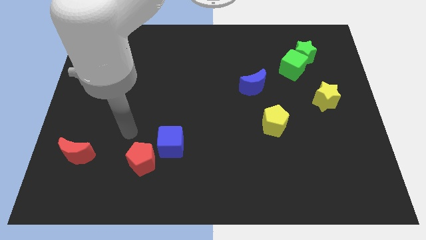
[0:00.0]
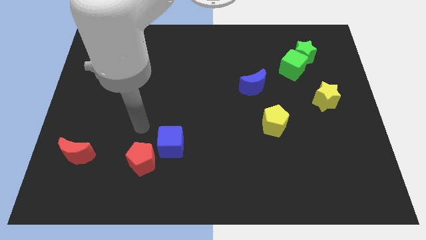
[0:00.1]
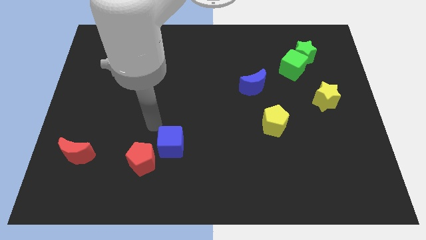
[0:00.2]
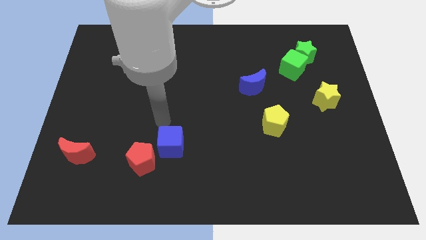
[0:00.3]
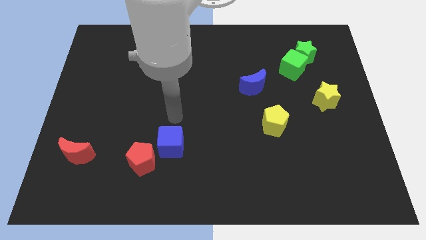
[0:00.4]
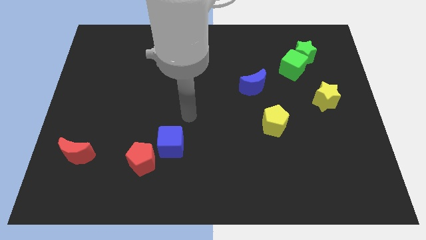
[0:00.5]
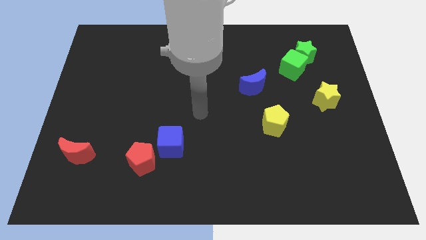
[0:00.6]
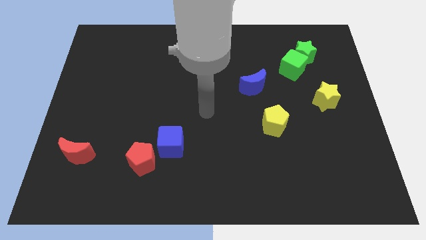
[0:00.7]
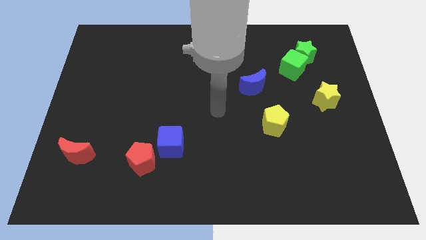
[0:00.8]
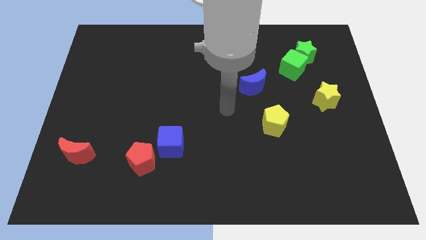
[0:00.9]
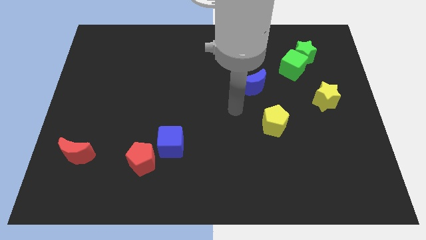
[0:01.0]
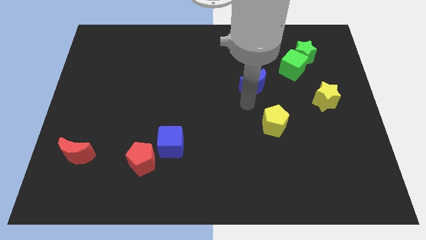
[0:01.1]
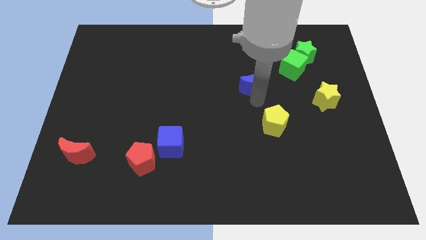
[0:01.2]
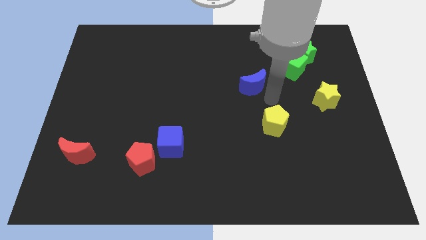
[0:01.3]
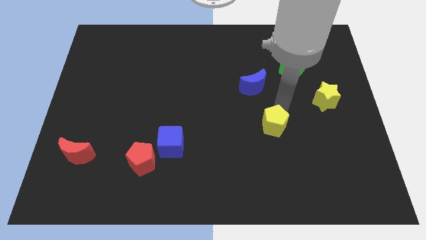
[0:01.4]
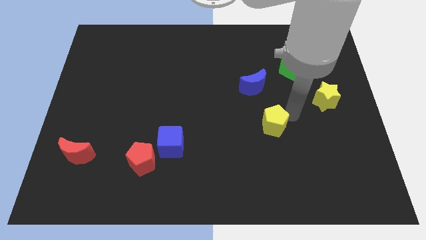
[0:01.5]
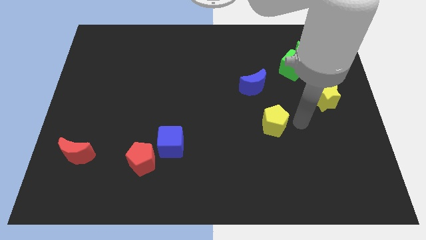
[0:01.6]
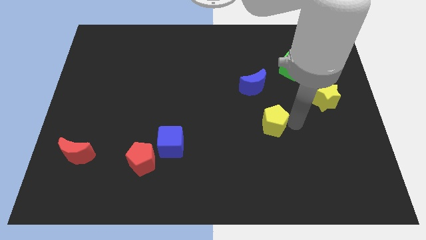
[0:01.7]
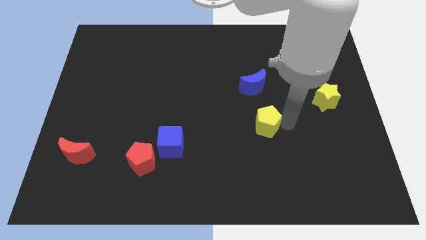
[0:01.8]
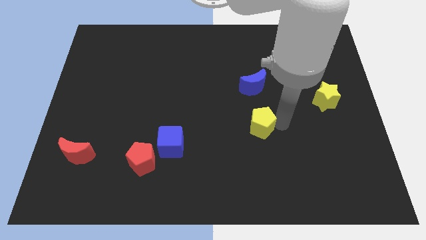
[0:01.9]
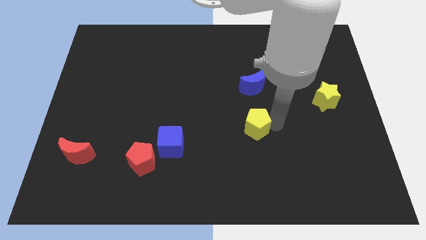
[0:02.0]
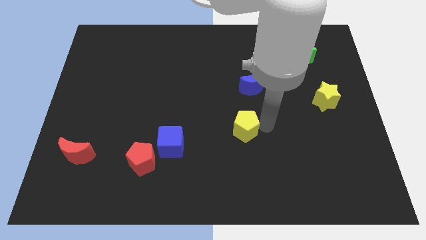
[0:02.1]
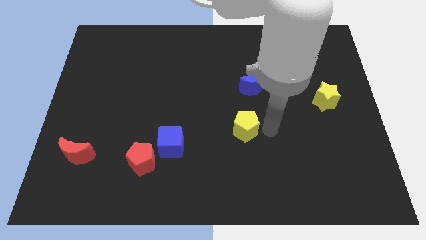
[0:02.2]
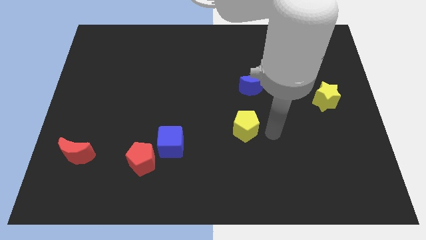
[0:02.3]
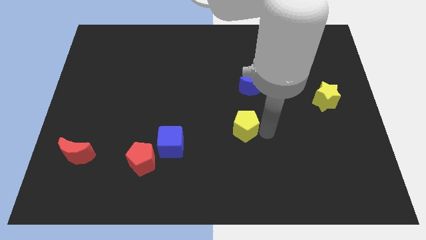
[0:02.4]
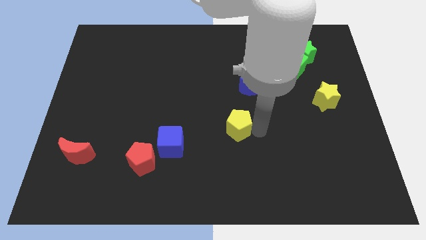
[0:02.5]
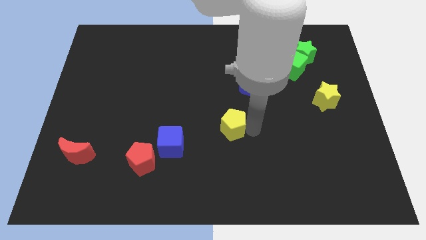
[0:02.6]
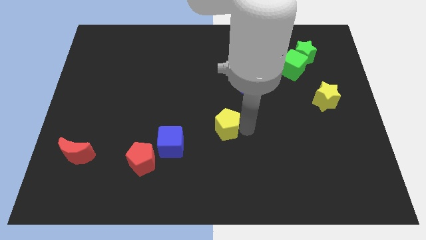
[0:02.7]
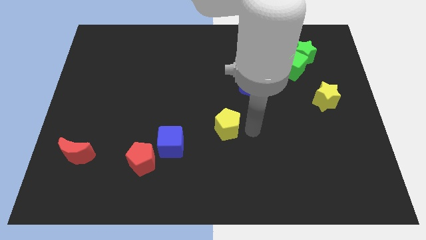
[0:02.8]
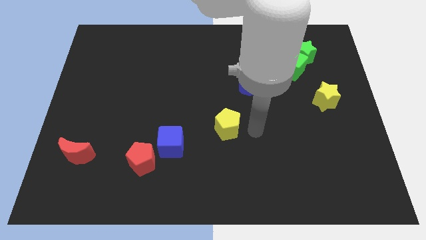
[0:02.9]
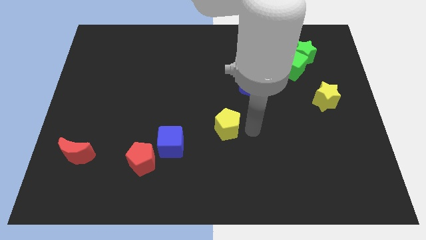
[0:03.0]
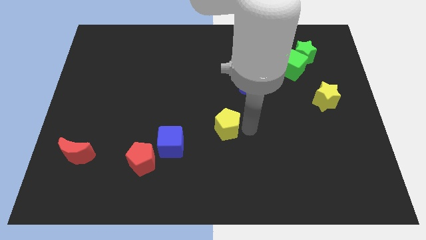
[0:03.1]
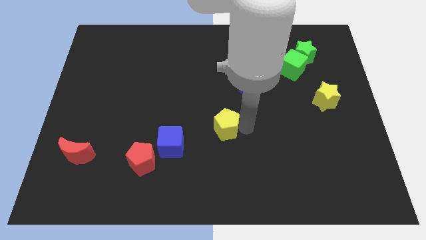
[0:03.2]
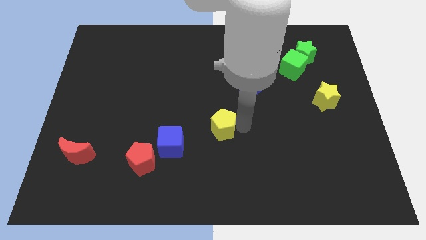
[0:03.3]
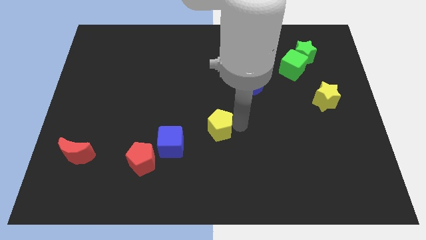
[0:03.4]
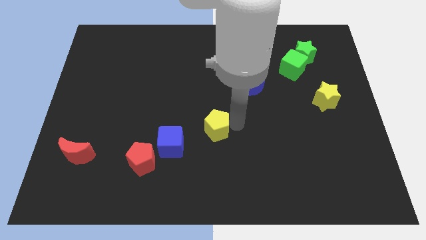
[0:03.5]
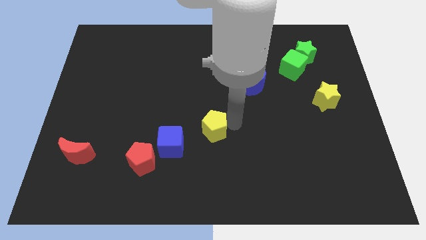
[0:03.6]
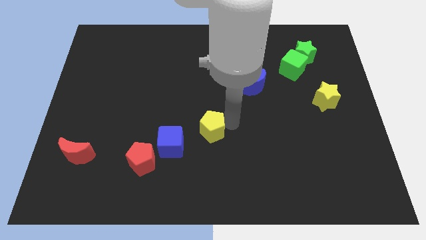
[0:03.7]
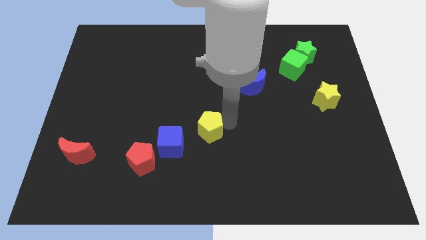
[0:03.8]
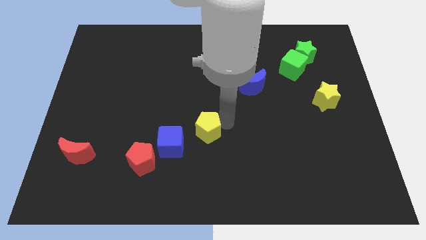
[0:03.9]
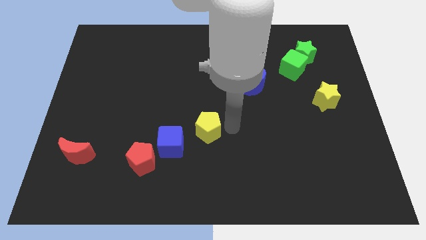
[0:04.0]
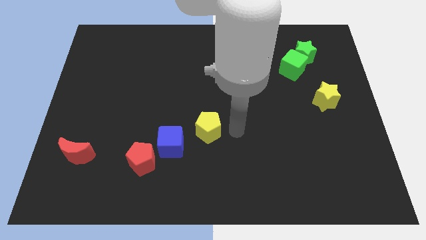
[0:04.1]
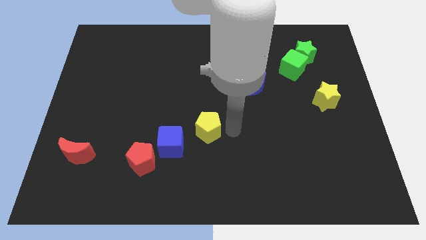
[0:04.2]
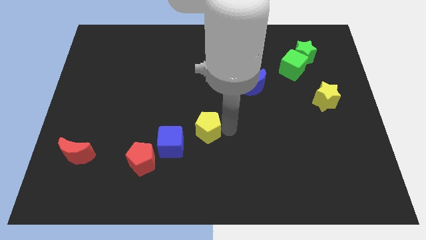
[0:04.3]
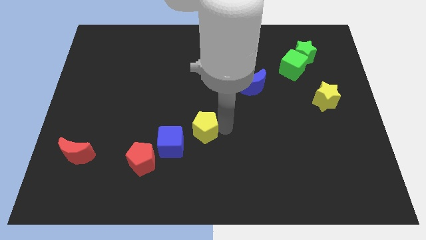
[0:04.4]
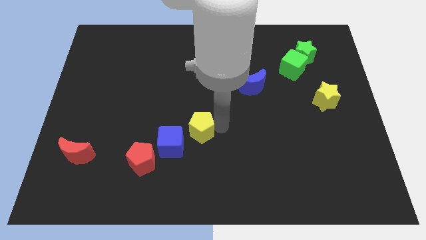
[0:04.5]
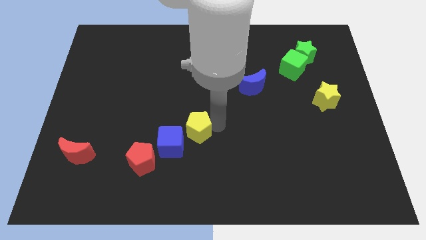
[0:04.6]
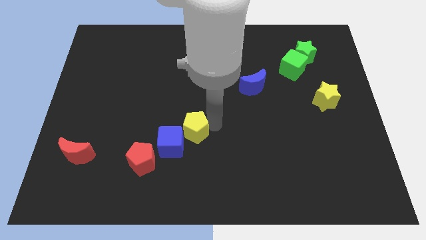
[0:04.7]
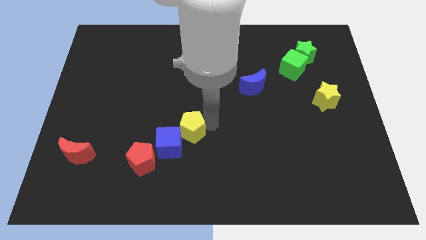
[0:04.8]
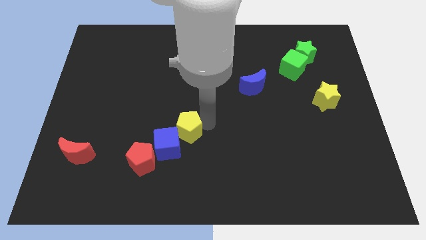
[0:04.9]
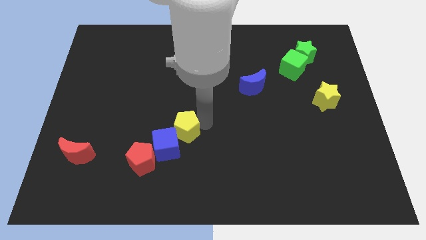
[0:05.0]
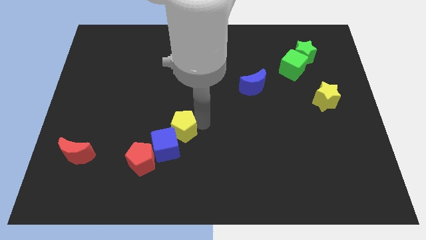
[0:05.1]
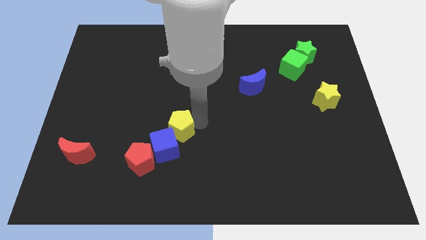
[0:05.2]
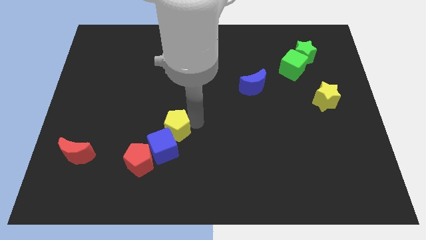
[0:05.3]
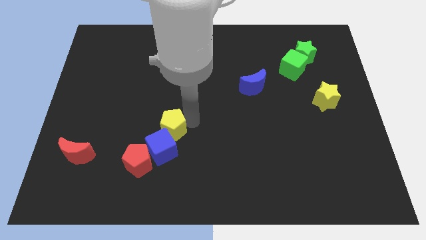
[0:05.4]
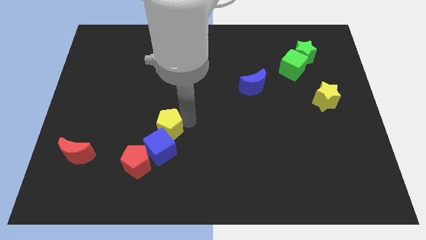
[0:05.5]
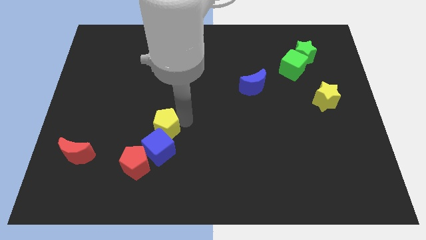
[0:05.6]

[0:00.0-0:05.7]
push the yellow pentagon diagonally up and to the left of the blue cube

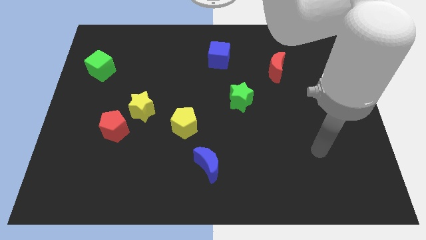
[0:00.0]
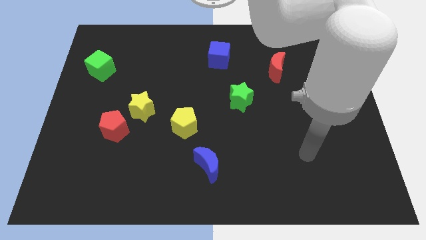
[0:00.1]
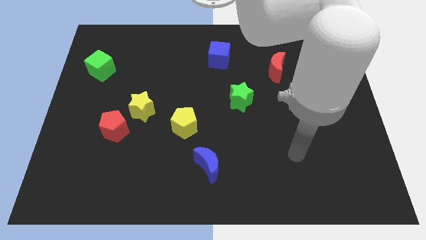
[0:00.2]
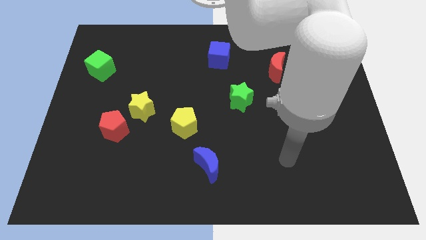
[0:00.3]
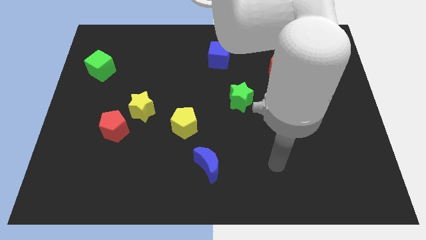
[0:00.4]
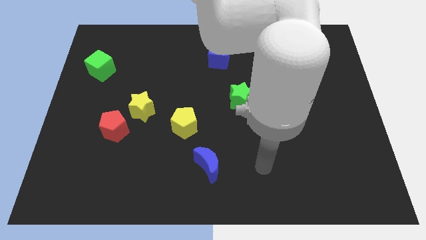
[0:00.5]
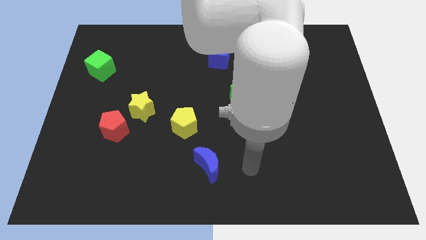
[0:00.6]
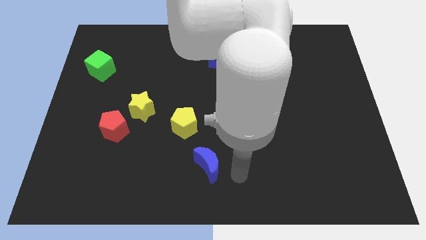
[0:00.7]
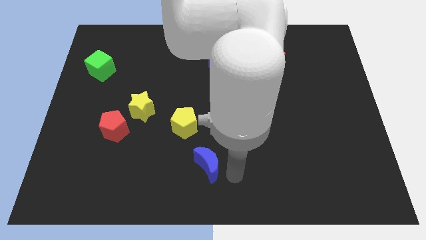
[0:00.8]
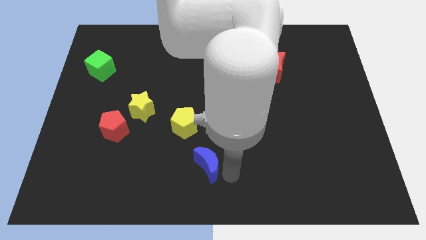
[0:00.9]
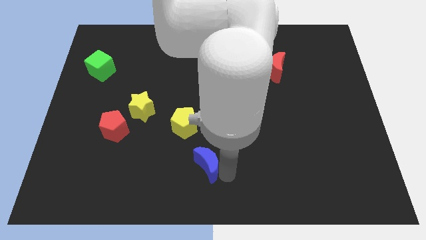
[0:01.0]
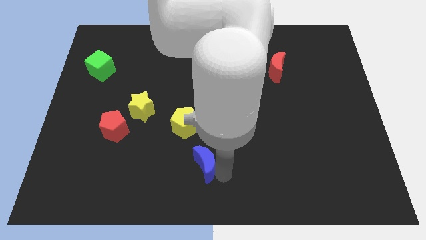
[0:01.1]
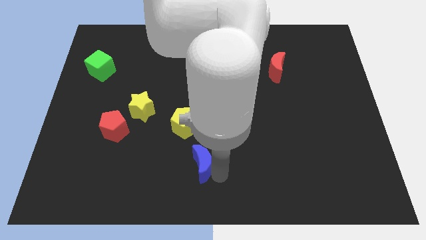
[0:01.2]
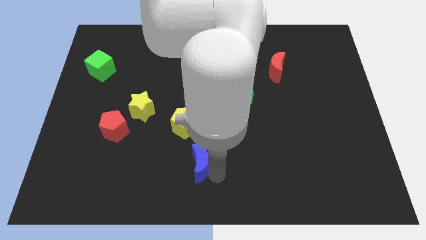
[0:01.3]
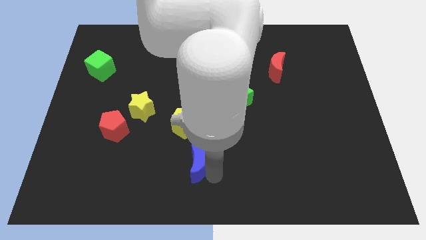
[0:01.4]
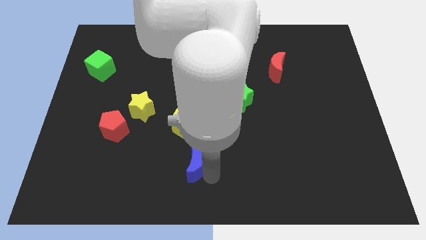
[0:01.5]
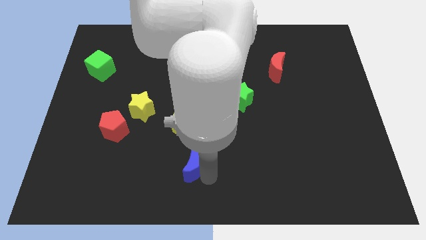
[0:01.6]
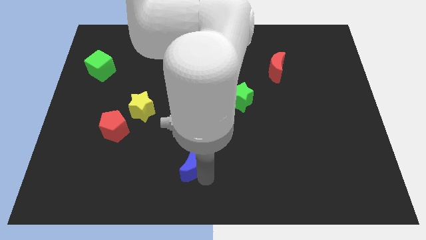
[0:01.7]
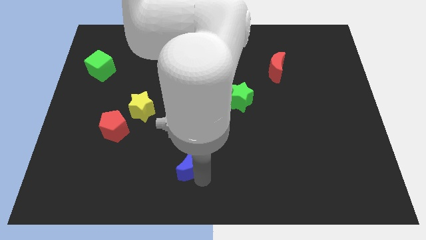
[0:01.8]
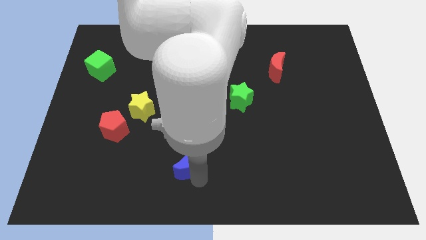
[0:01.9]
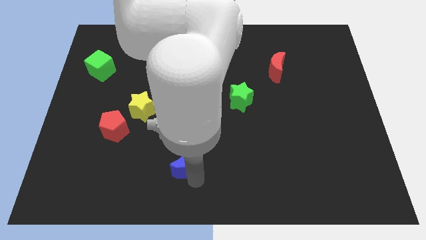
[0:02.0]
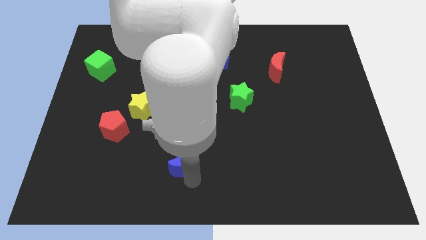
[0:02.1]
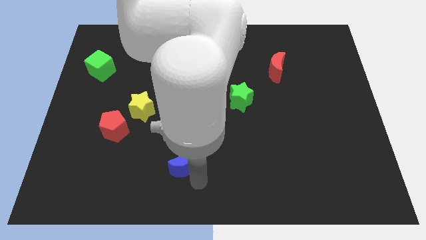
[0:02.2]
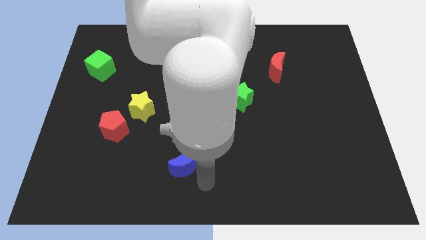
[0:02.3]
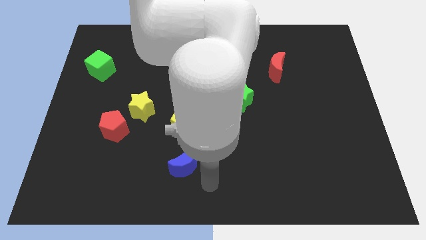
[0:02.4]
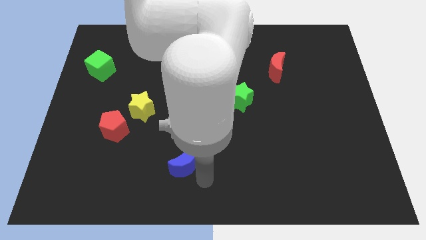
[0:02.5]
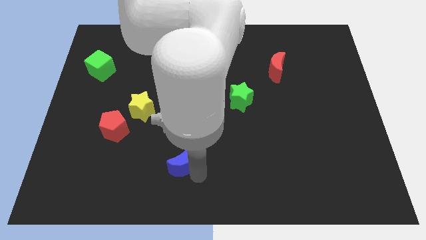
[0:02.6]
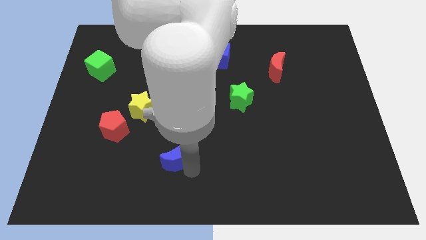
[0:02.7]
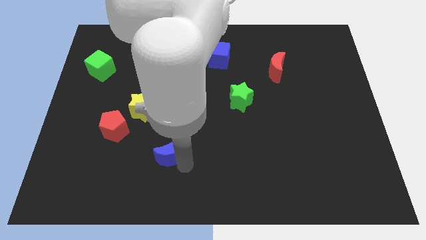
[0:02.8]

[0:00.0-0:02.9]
slide the blue moon to the bottom left of the yellow pentagon
